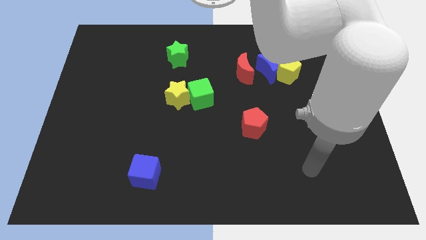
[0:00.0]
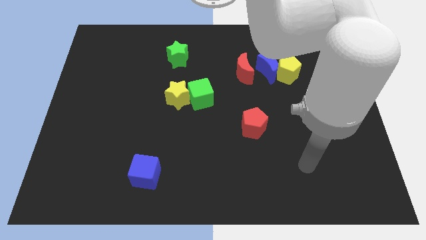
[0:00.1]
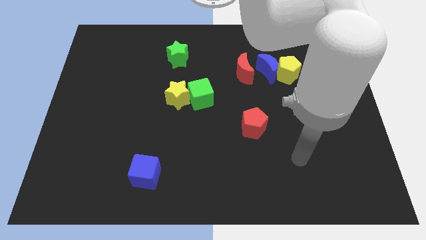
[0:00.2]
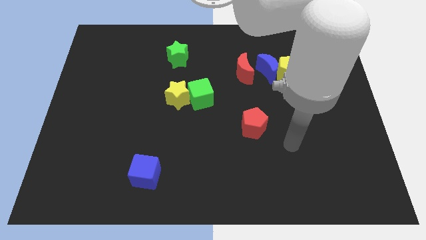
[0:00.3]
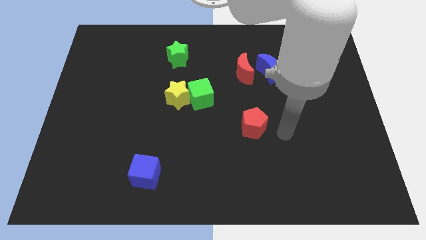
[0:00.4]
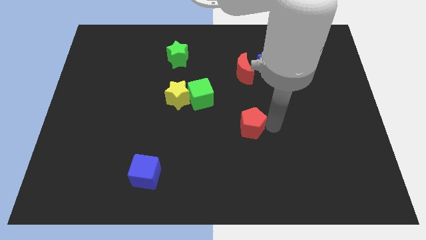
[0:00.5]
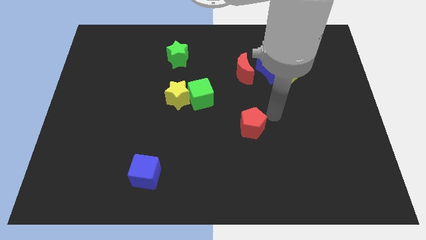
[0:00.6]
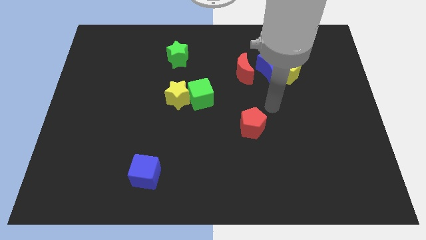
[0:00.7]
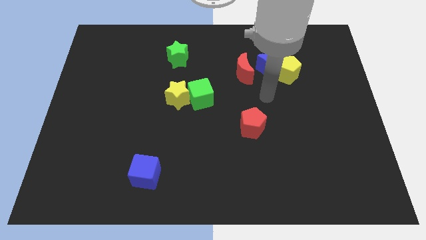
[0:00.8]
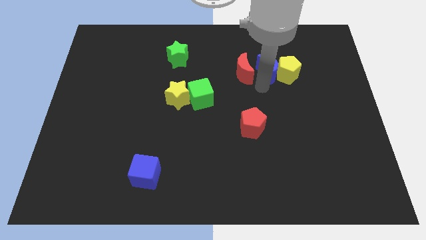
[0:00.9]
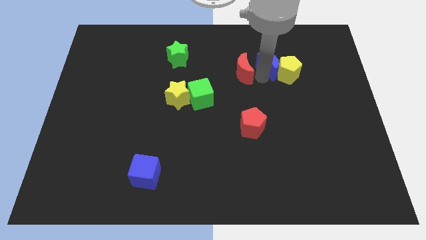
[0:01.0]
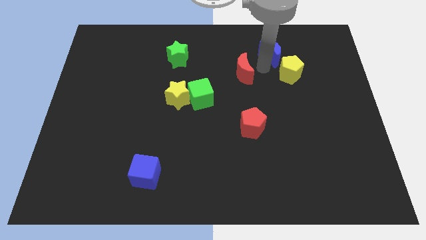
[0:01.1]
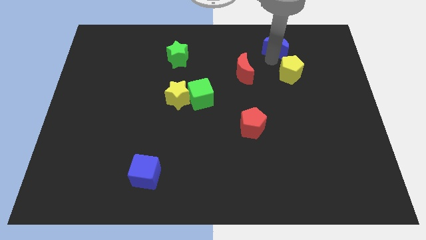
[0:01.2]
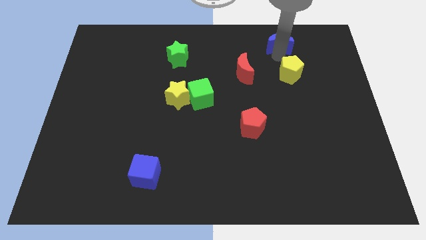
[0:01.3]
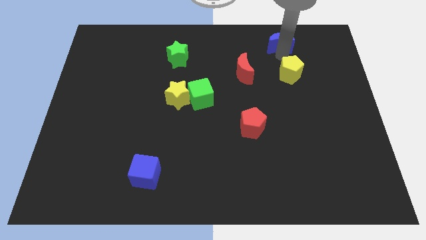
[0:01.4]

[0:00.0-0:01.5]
separate the yellow pentagon from the blue moon

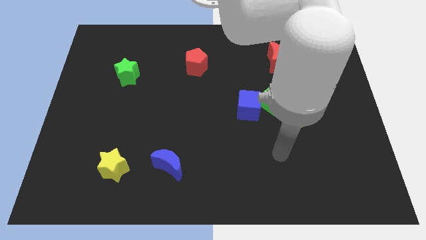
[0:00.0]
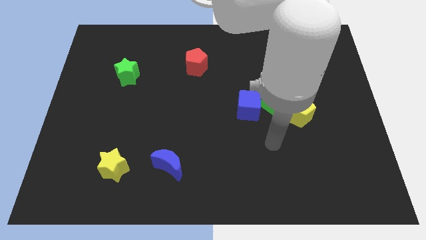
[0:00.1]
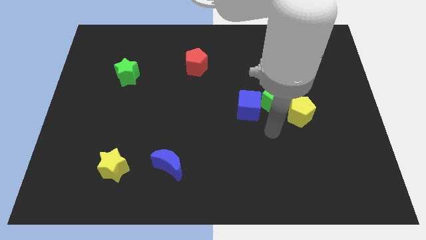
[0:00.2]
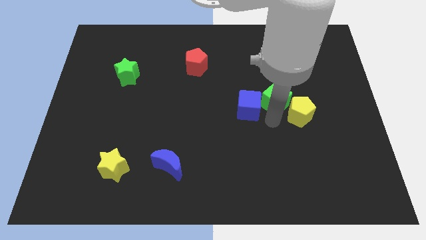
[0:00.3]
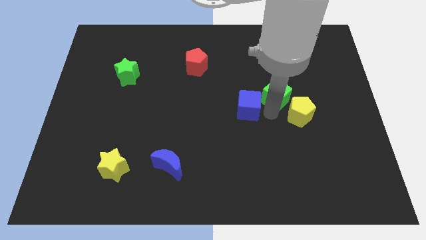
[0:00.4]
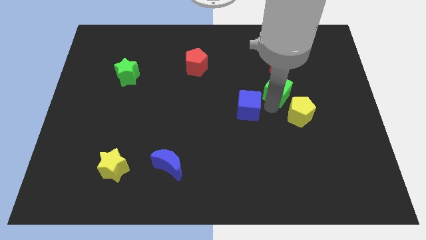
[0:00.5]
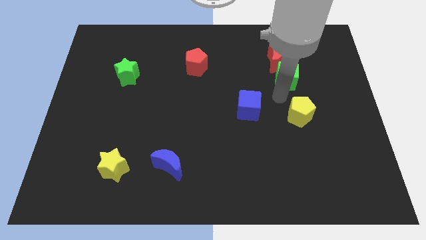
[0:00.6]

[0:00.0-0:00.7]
separate the yellow pentagon from the green cube

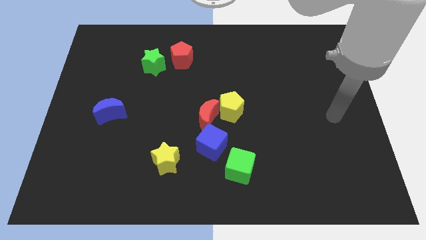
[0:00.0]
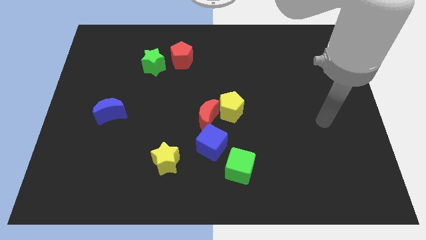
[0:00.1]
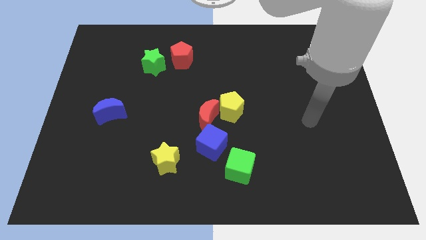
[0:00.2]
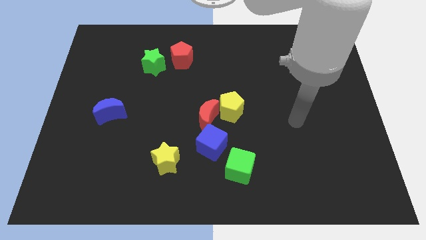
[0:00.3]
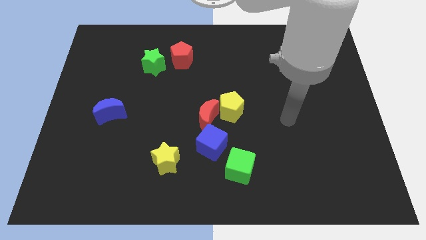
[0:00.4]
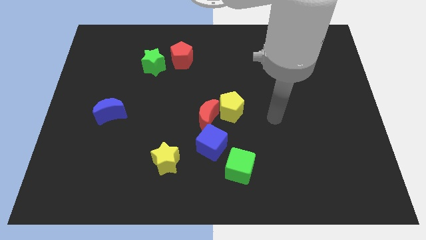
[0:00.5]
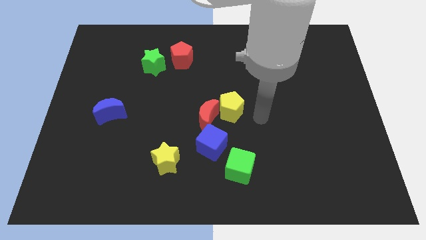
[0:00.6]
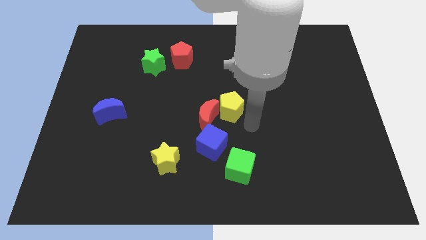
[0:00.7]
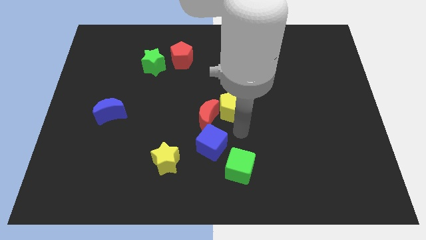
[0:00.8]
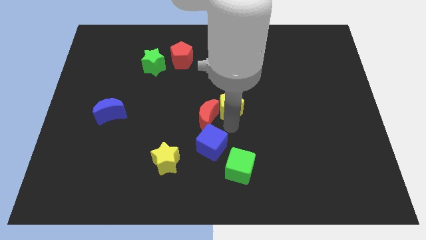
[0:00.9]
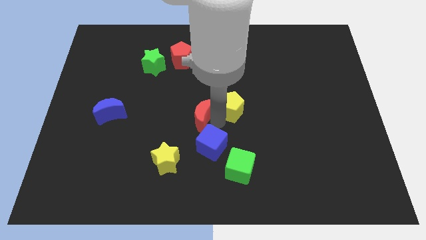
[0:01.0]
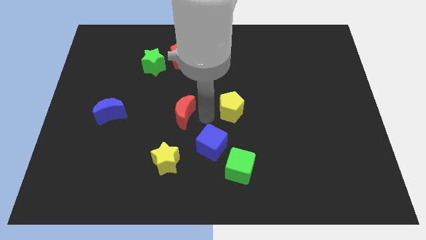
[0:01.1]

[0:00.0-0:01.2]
separate the yellow pentagon from the red moon

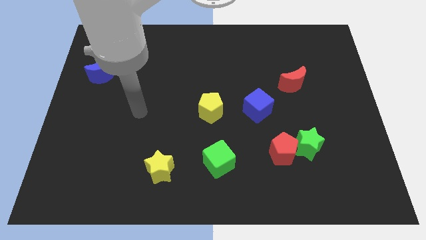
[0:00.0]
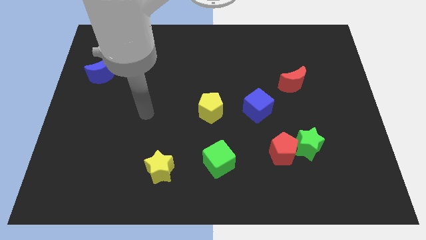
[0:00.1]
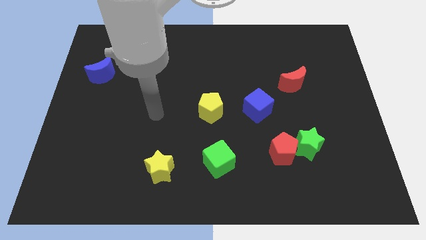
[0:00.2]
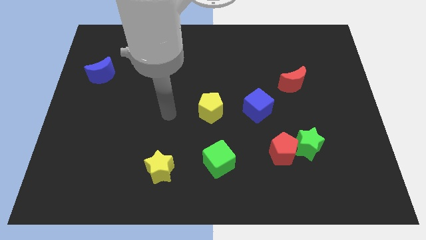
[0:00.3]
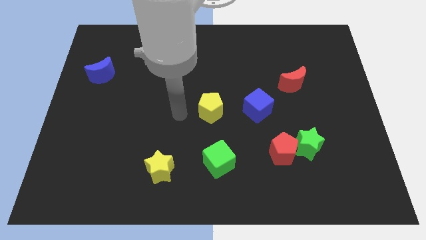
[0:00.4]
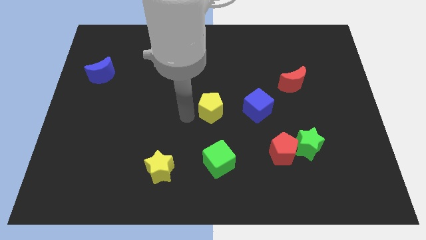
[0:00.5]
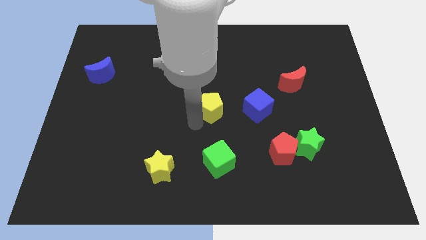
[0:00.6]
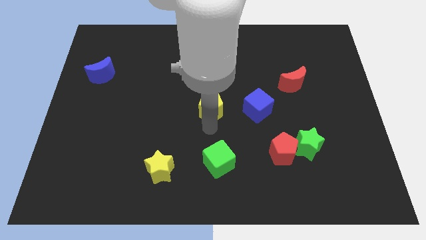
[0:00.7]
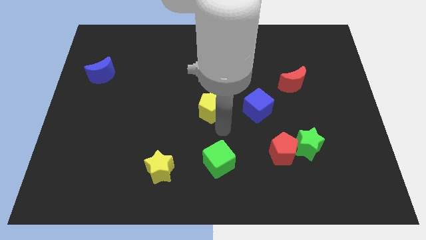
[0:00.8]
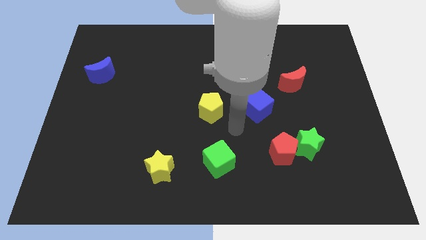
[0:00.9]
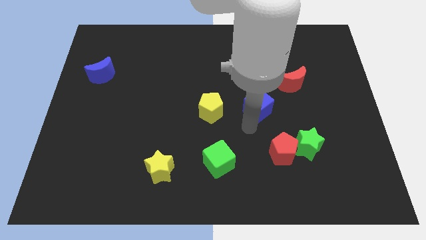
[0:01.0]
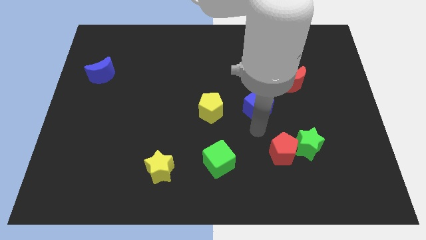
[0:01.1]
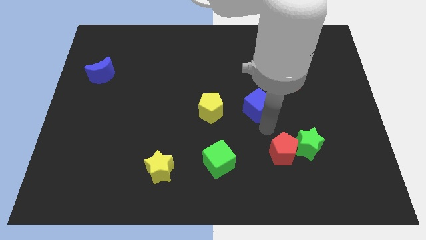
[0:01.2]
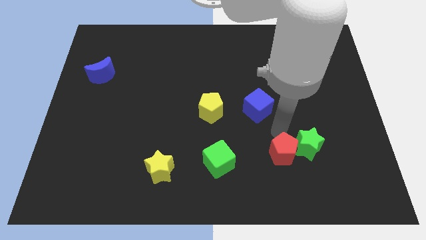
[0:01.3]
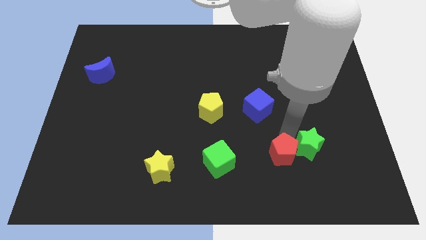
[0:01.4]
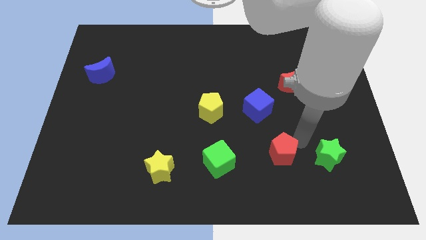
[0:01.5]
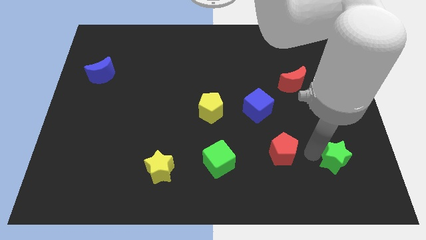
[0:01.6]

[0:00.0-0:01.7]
separate the red pentagon from the green star

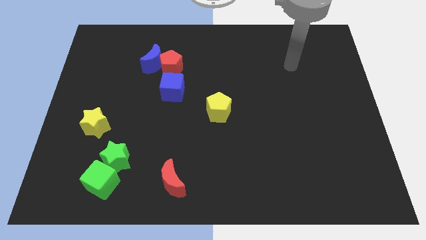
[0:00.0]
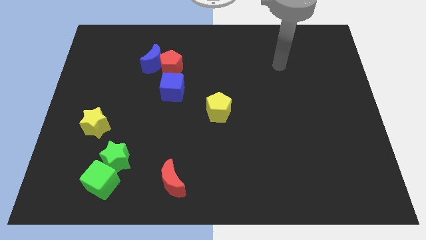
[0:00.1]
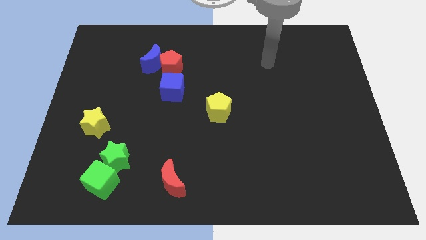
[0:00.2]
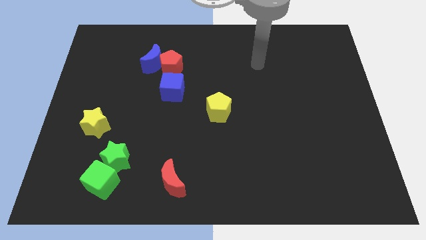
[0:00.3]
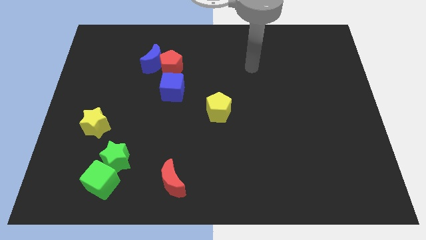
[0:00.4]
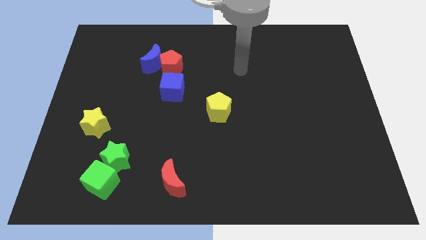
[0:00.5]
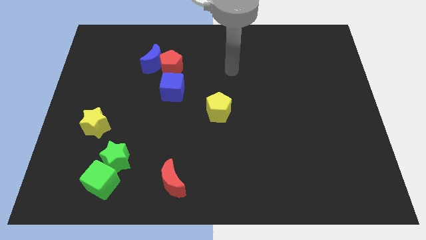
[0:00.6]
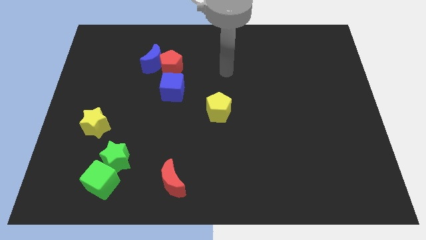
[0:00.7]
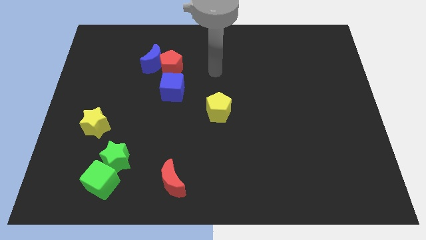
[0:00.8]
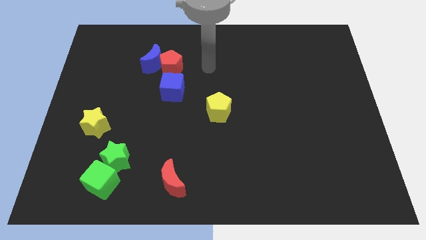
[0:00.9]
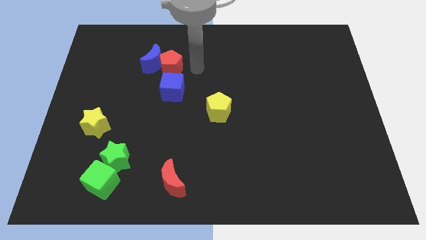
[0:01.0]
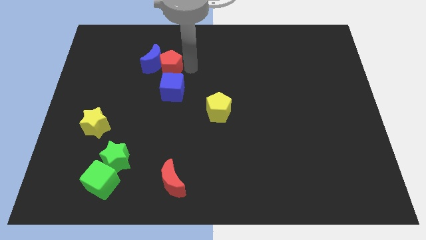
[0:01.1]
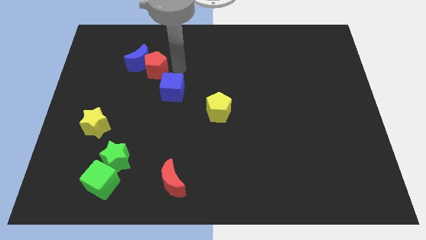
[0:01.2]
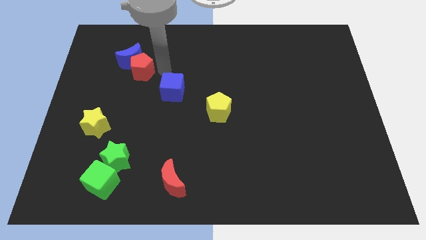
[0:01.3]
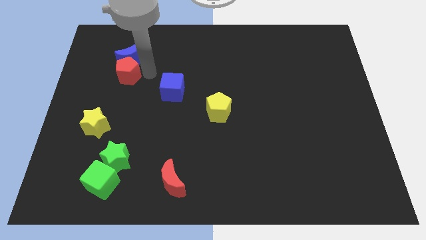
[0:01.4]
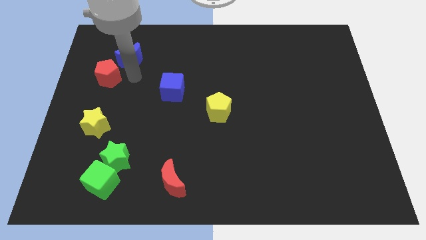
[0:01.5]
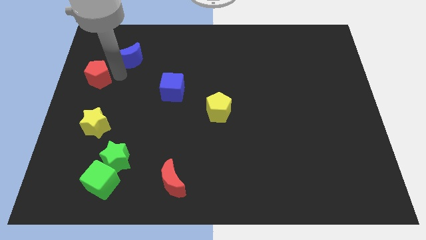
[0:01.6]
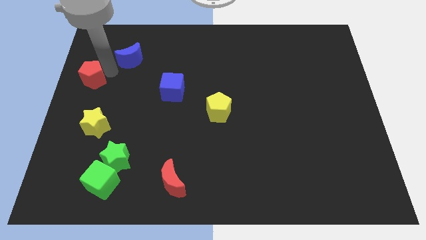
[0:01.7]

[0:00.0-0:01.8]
pull the blue moon apart from the red pentagon

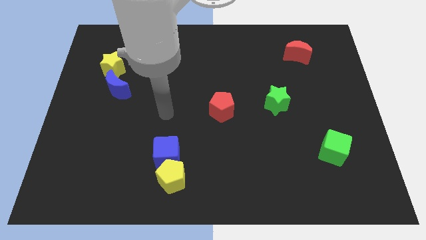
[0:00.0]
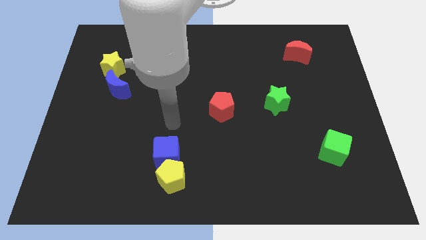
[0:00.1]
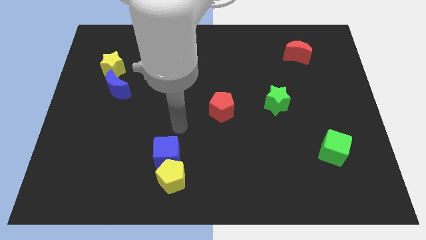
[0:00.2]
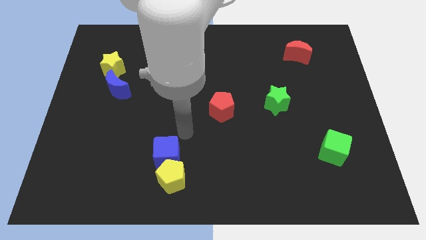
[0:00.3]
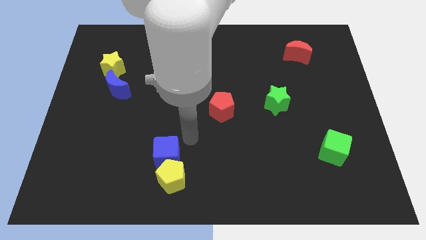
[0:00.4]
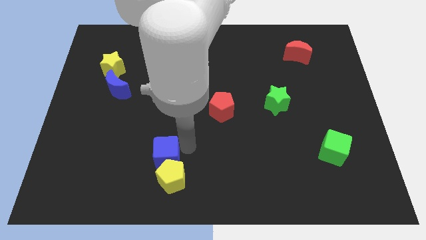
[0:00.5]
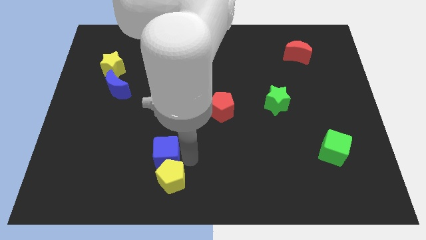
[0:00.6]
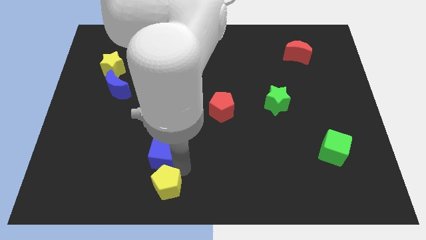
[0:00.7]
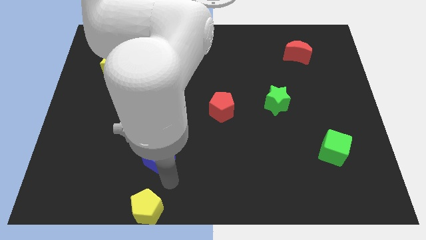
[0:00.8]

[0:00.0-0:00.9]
separate the blue cube from the yellow pentagon

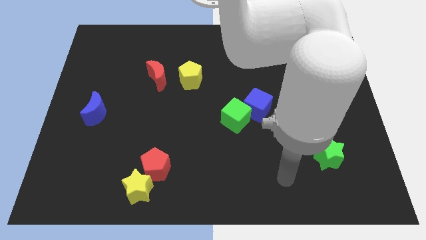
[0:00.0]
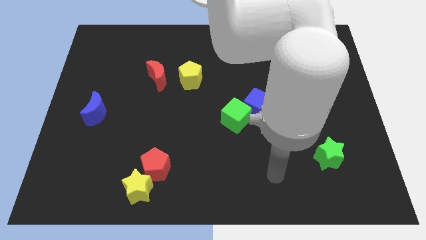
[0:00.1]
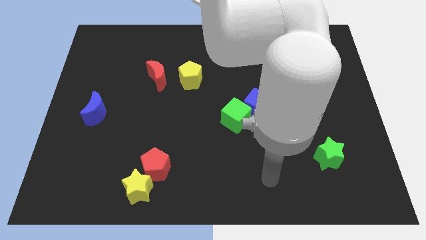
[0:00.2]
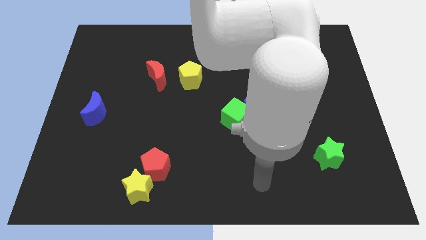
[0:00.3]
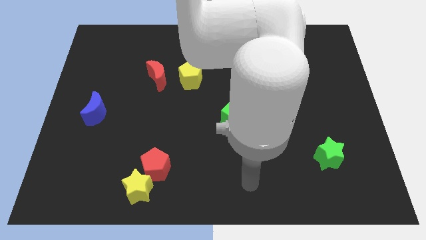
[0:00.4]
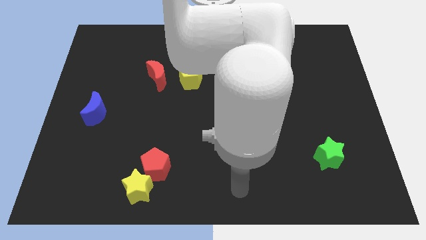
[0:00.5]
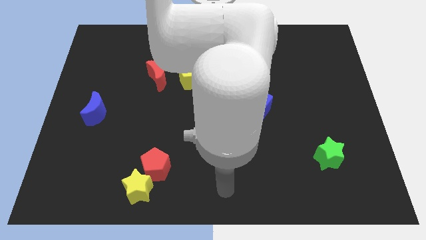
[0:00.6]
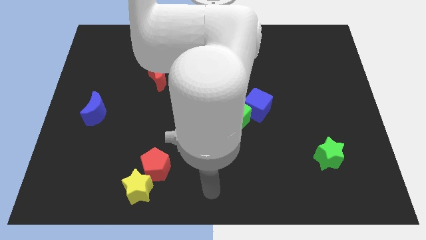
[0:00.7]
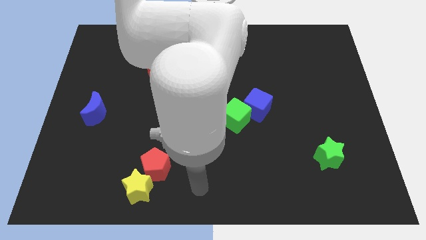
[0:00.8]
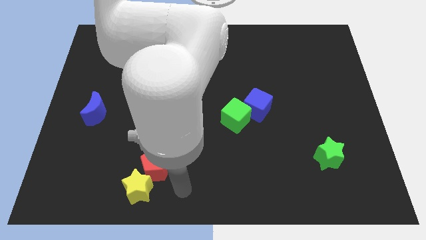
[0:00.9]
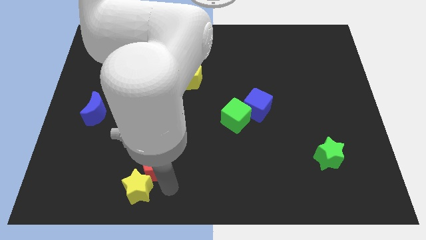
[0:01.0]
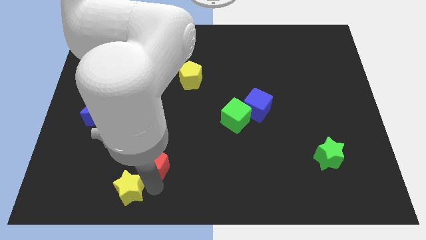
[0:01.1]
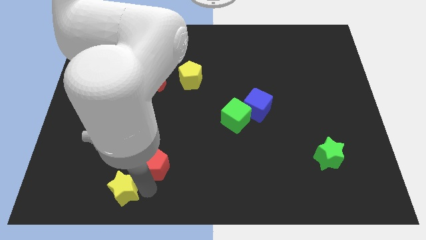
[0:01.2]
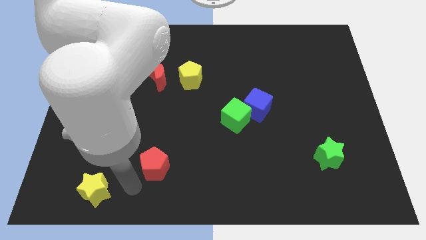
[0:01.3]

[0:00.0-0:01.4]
pull the red pentagon apart from the yellow star
